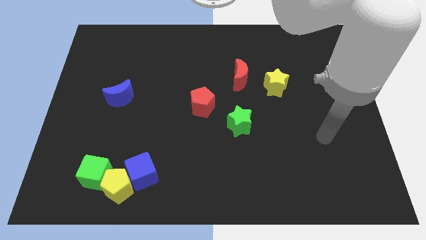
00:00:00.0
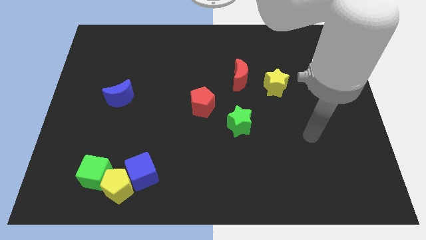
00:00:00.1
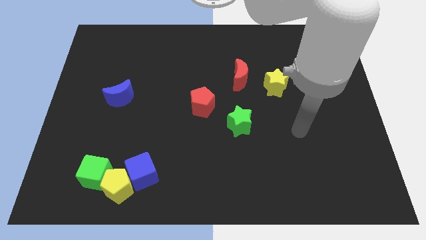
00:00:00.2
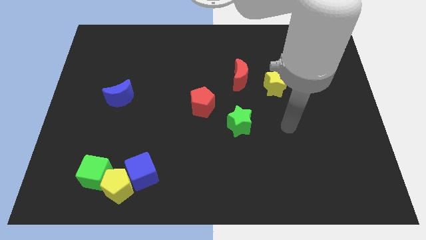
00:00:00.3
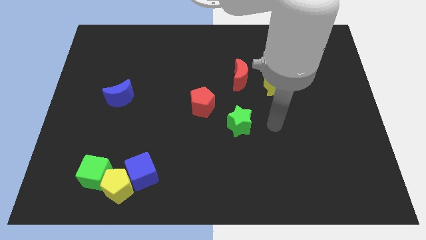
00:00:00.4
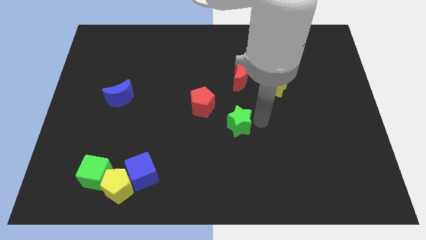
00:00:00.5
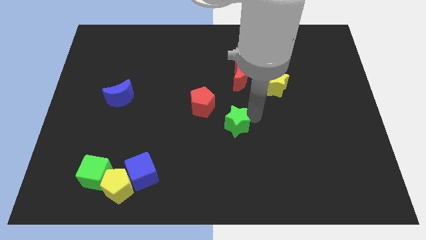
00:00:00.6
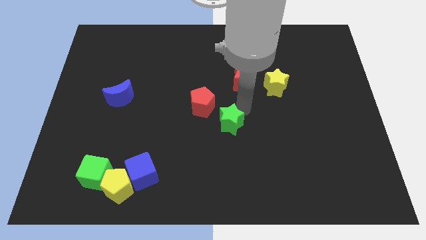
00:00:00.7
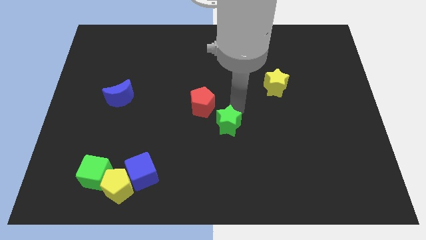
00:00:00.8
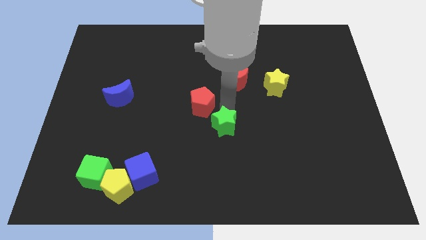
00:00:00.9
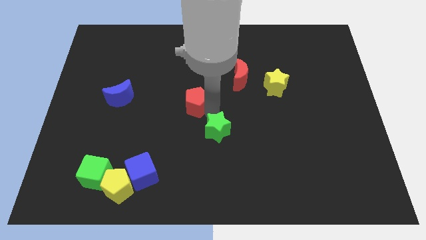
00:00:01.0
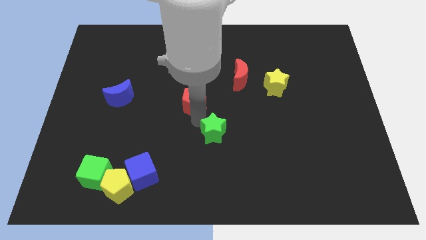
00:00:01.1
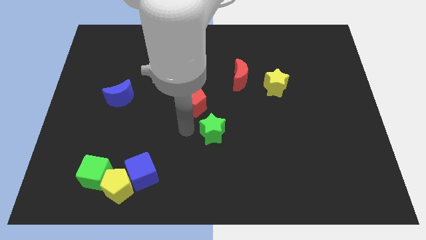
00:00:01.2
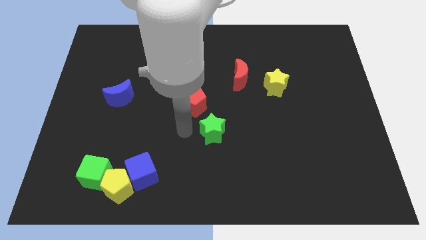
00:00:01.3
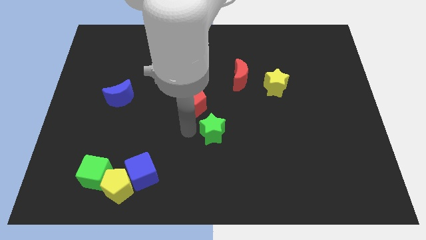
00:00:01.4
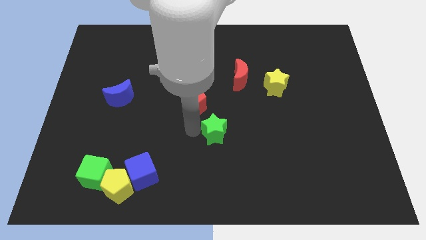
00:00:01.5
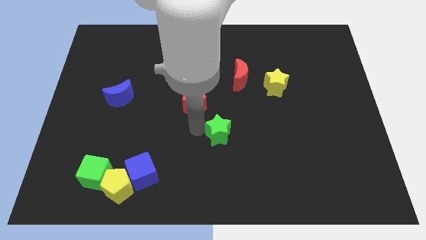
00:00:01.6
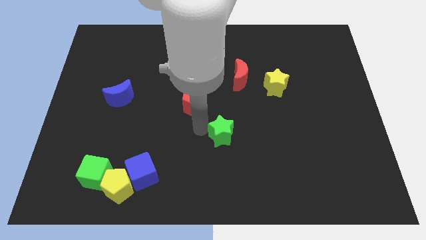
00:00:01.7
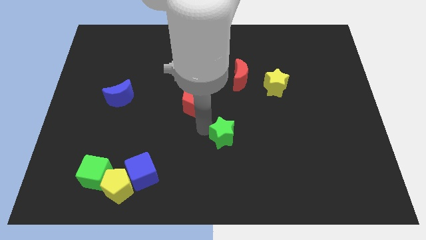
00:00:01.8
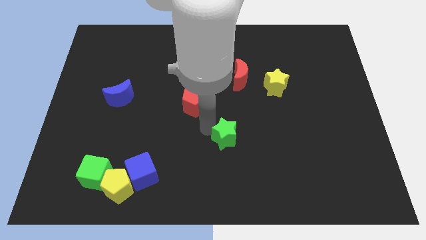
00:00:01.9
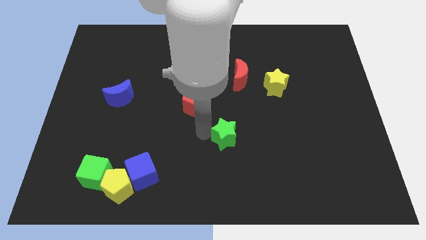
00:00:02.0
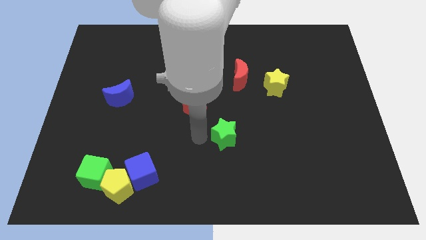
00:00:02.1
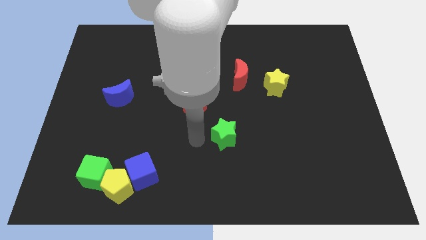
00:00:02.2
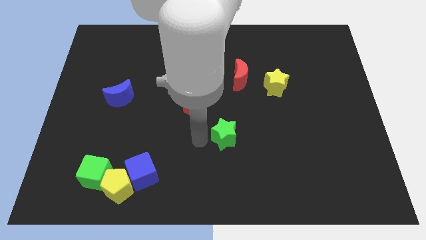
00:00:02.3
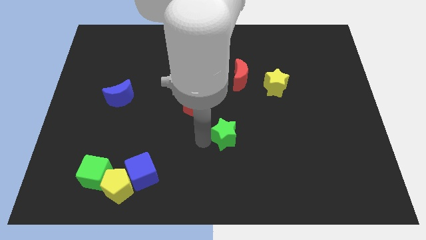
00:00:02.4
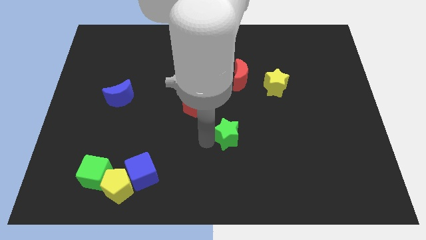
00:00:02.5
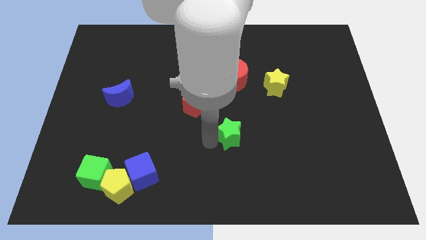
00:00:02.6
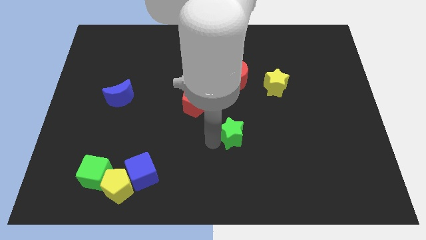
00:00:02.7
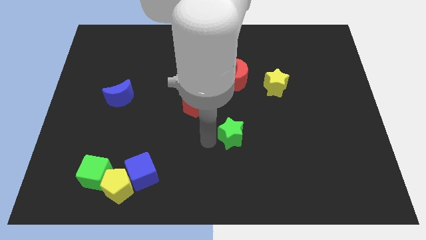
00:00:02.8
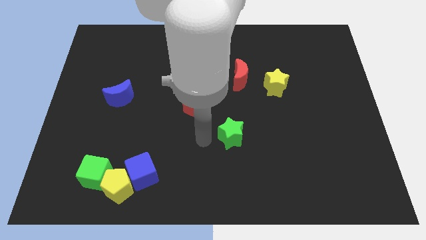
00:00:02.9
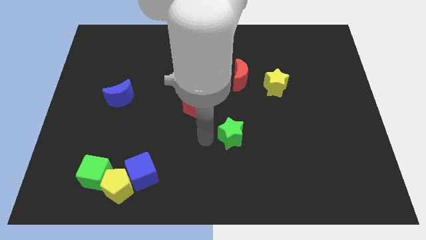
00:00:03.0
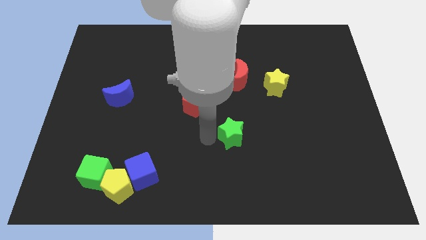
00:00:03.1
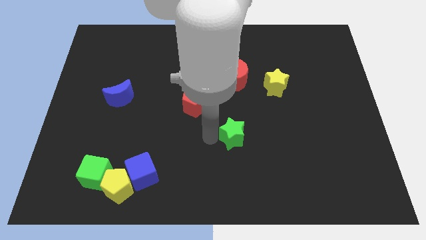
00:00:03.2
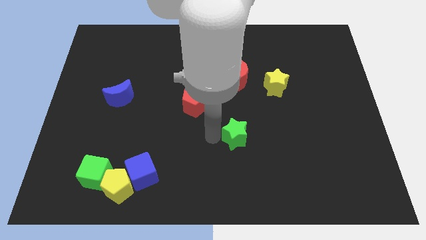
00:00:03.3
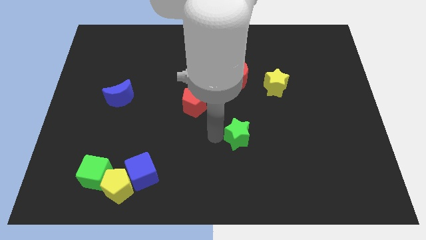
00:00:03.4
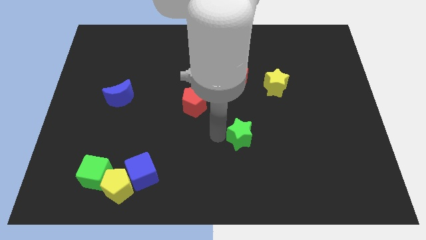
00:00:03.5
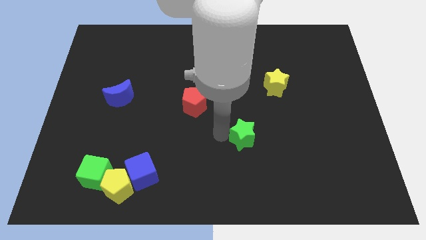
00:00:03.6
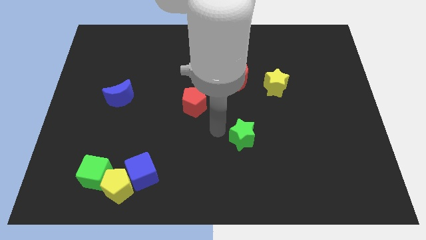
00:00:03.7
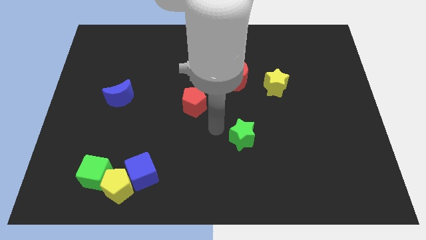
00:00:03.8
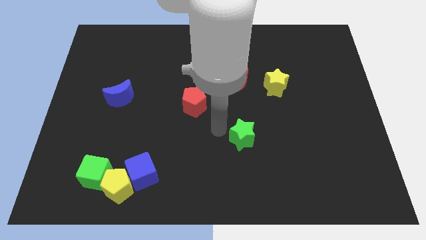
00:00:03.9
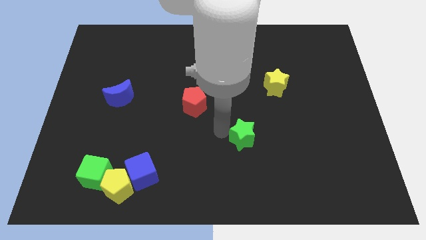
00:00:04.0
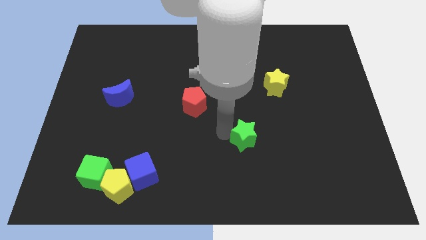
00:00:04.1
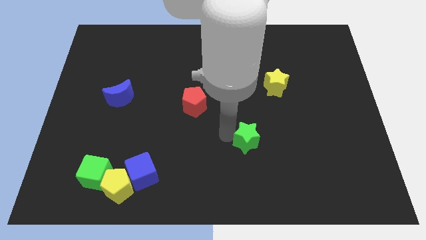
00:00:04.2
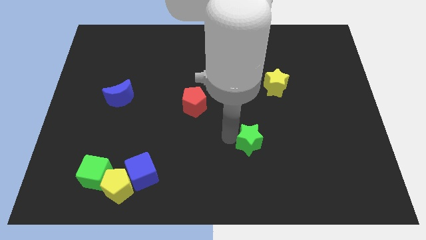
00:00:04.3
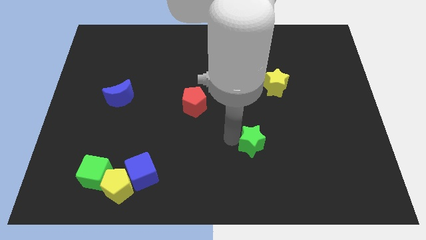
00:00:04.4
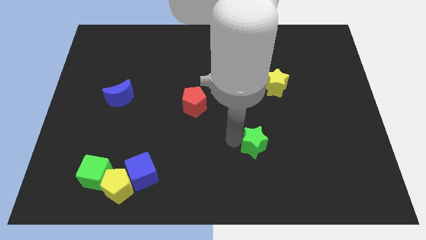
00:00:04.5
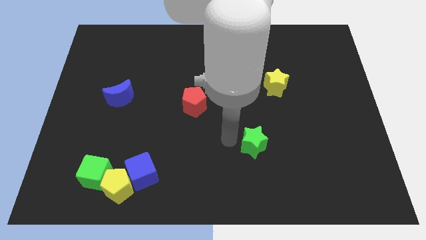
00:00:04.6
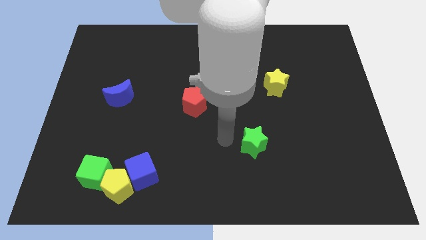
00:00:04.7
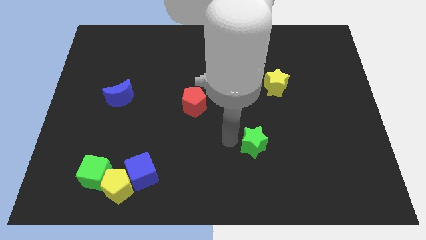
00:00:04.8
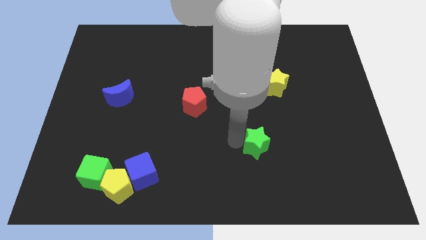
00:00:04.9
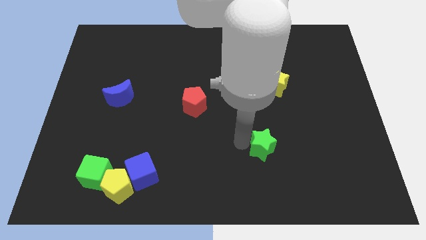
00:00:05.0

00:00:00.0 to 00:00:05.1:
slide the green star a little bit downwards and right diagonally

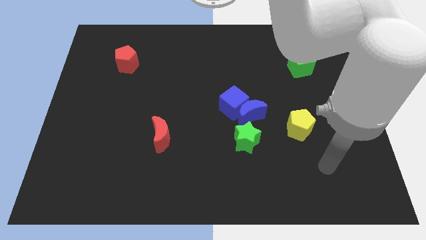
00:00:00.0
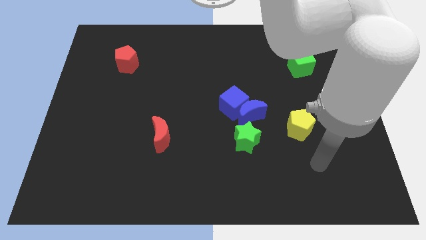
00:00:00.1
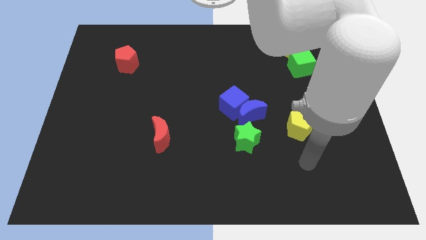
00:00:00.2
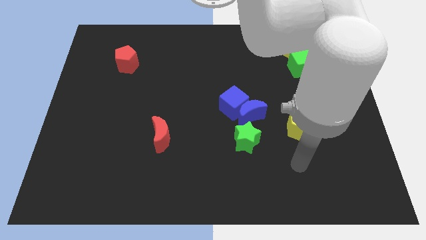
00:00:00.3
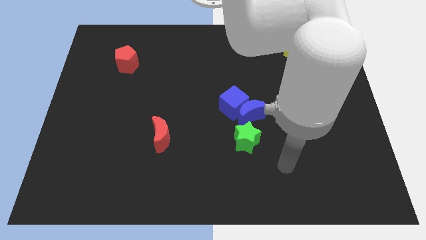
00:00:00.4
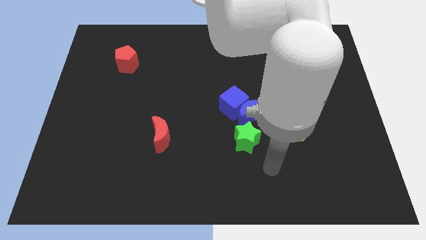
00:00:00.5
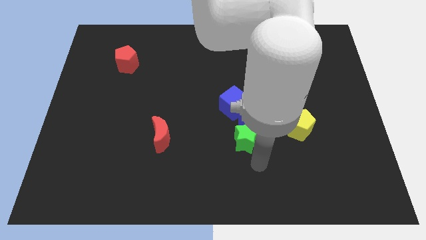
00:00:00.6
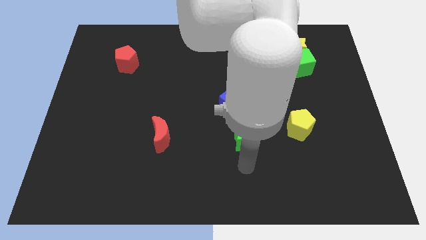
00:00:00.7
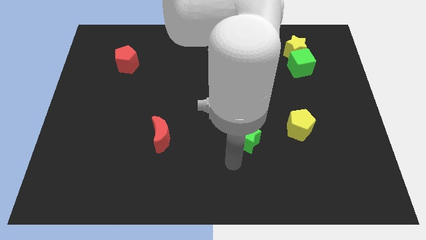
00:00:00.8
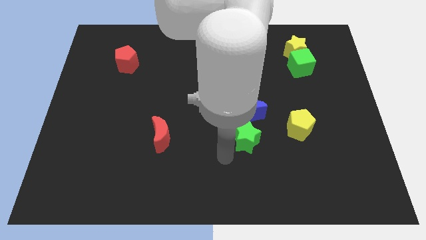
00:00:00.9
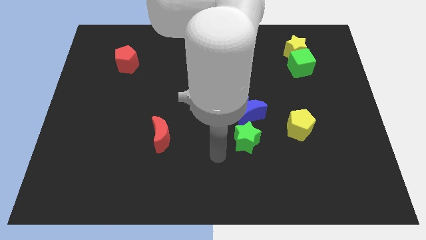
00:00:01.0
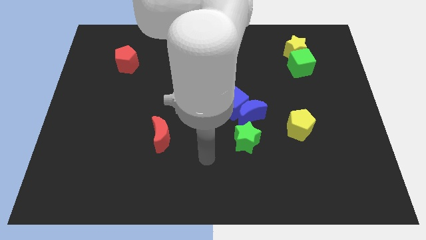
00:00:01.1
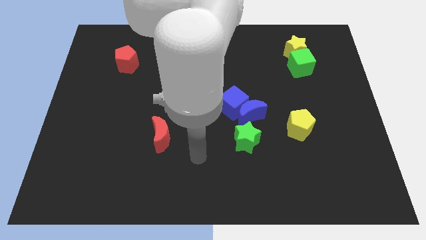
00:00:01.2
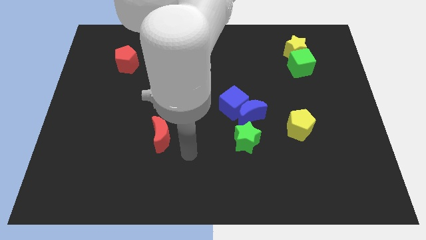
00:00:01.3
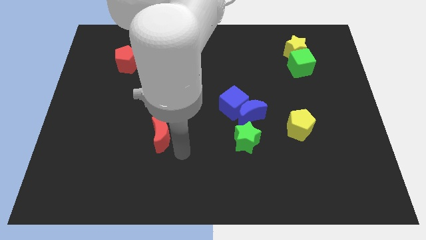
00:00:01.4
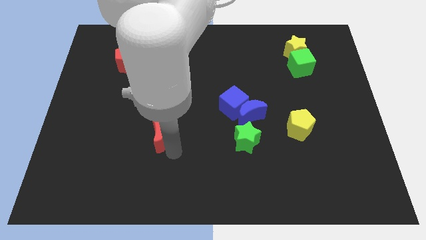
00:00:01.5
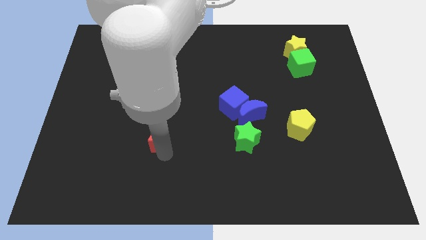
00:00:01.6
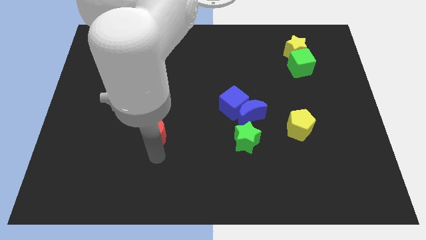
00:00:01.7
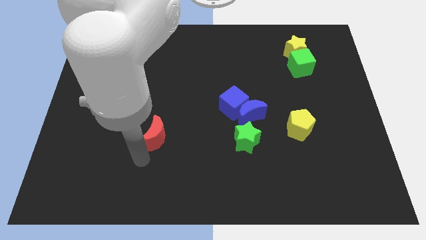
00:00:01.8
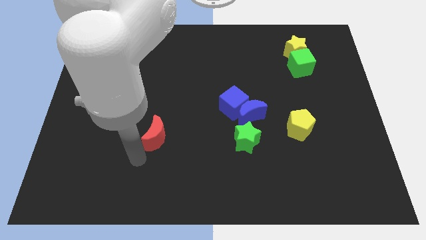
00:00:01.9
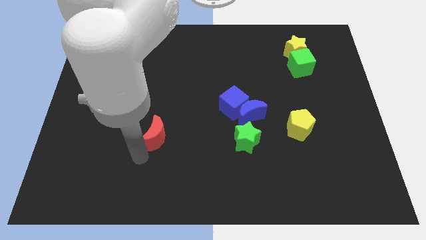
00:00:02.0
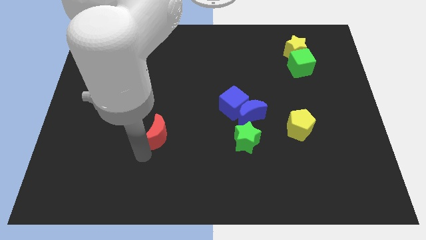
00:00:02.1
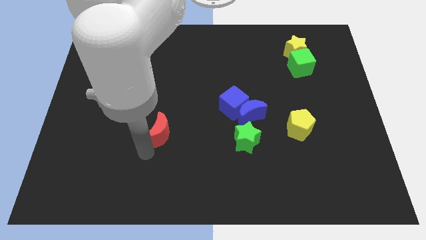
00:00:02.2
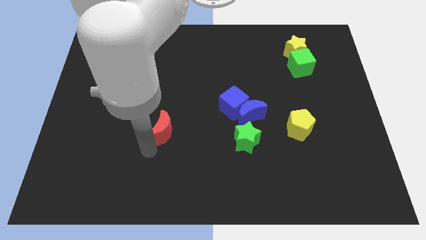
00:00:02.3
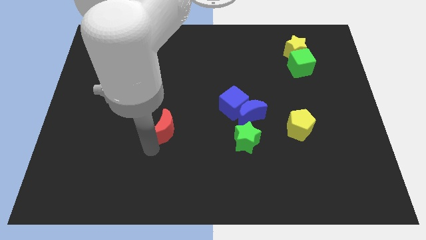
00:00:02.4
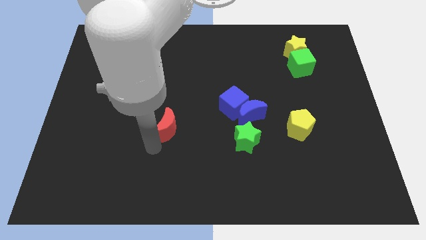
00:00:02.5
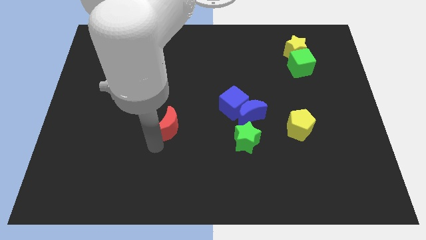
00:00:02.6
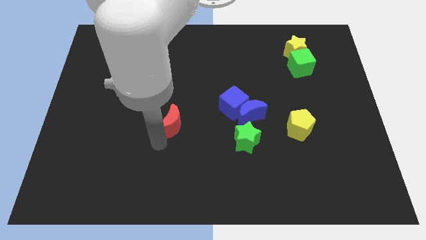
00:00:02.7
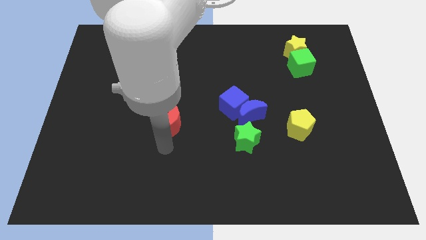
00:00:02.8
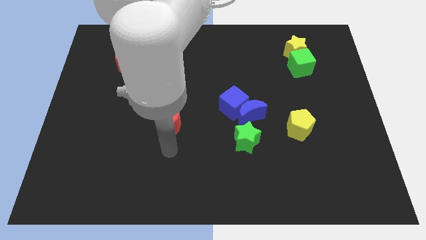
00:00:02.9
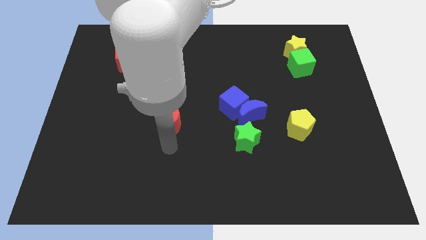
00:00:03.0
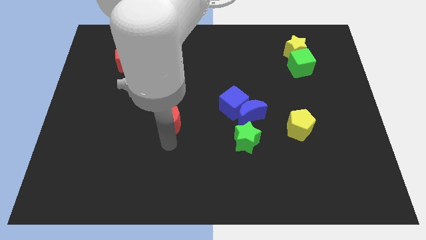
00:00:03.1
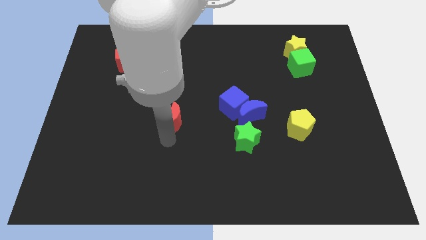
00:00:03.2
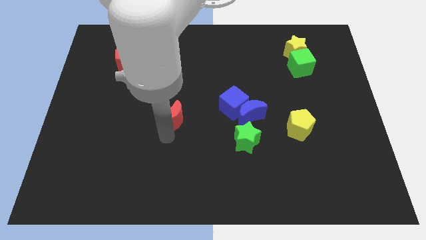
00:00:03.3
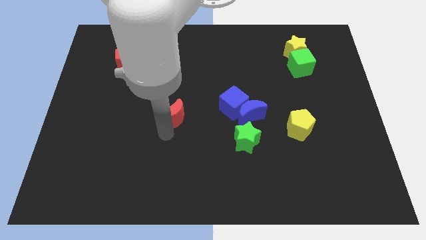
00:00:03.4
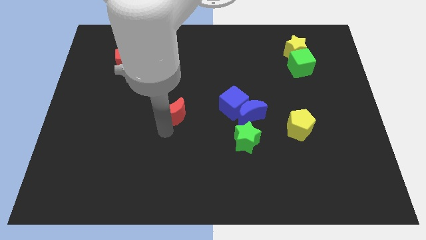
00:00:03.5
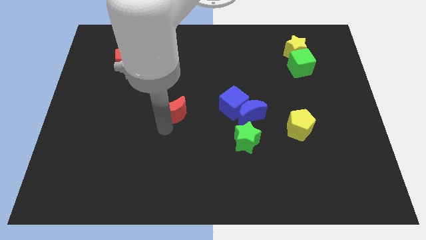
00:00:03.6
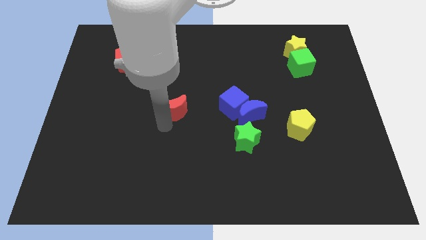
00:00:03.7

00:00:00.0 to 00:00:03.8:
move the red moon up a little
